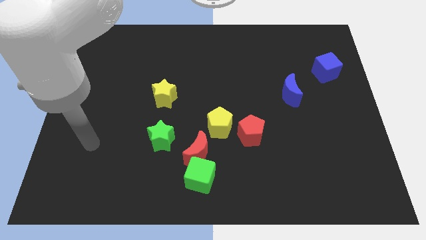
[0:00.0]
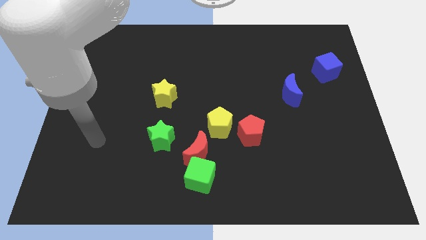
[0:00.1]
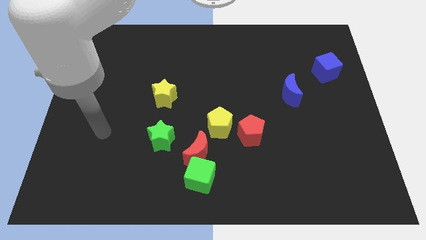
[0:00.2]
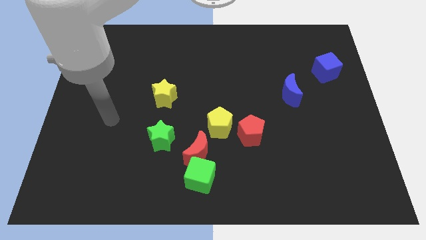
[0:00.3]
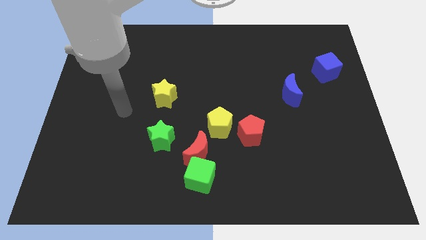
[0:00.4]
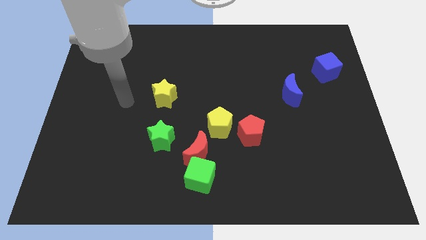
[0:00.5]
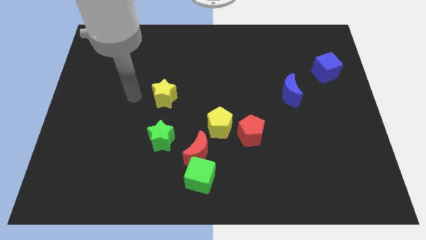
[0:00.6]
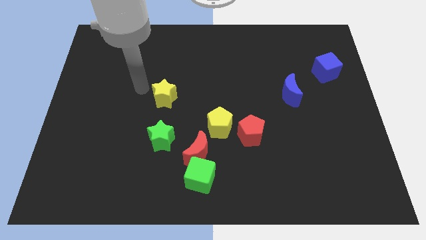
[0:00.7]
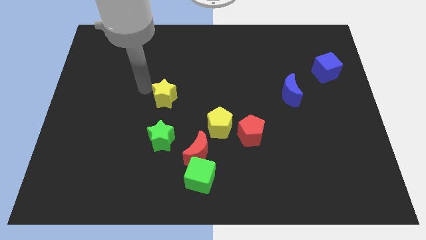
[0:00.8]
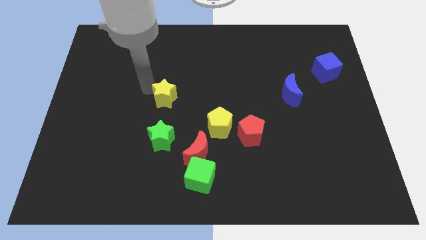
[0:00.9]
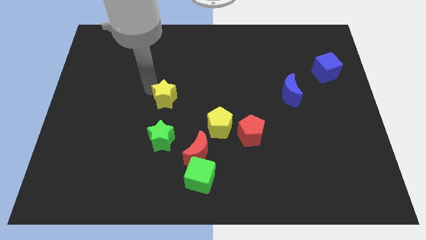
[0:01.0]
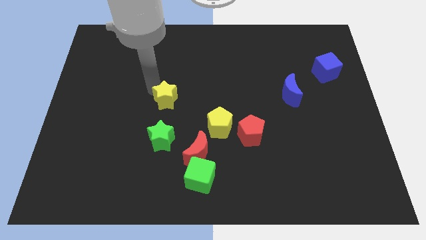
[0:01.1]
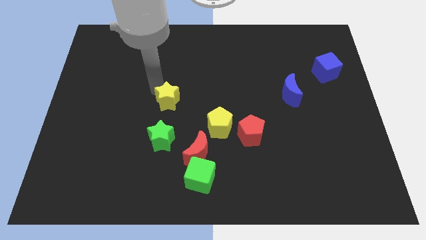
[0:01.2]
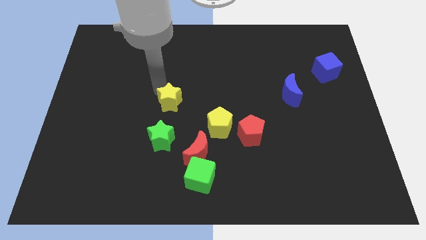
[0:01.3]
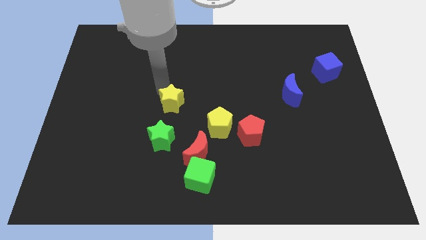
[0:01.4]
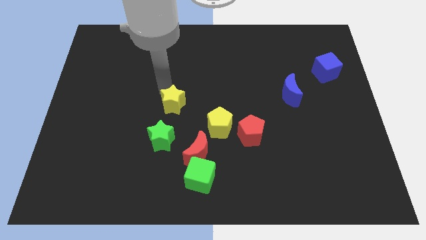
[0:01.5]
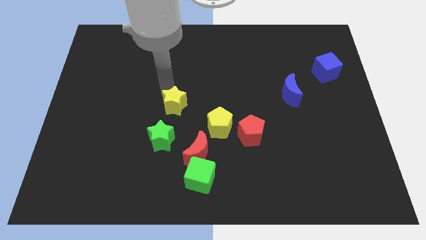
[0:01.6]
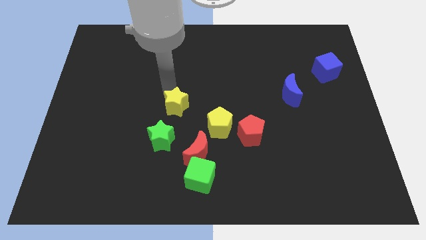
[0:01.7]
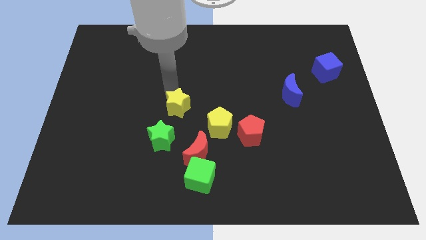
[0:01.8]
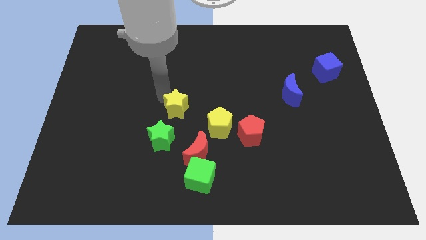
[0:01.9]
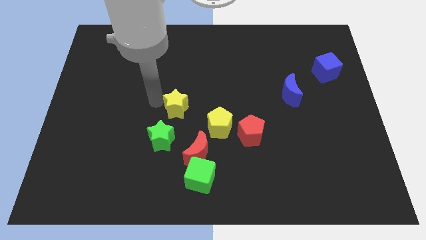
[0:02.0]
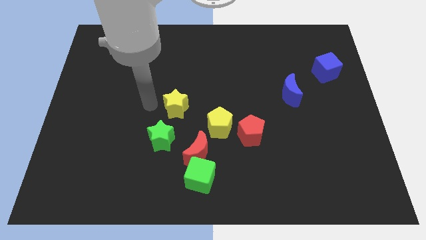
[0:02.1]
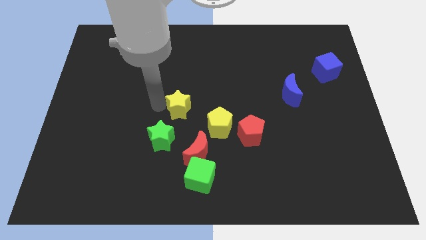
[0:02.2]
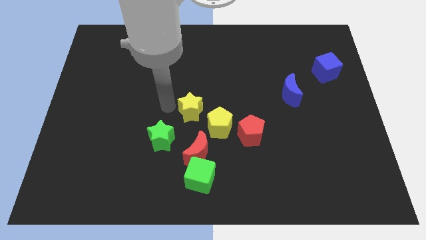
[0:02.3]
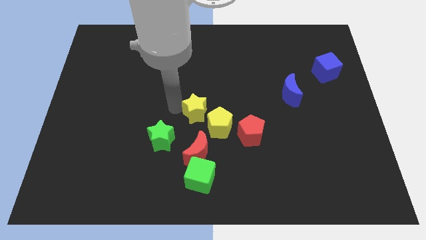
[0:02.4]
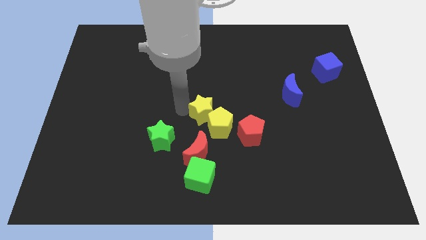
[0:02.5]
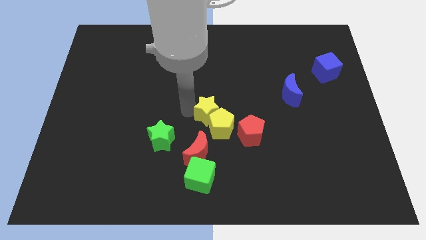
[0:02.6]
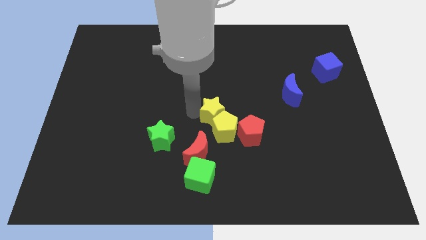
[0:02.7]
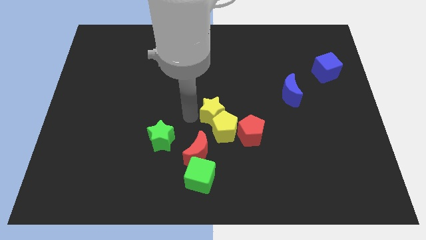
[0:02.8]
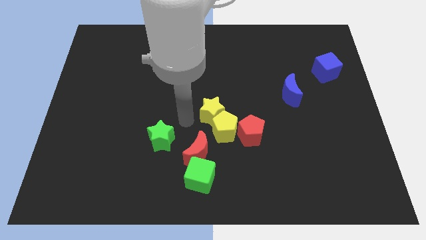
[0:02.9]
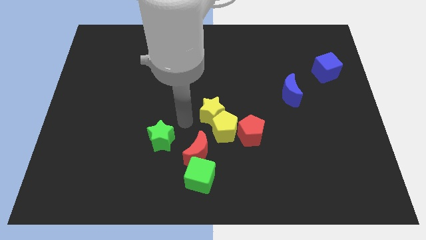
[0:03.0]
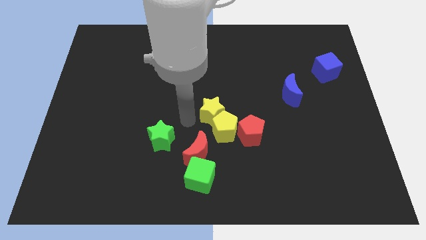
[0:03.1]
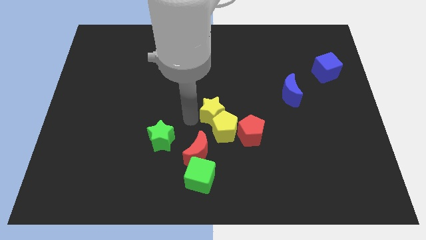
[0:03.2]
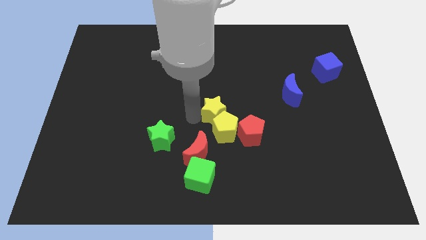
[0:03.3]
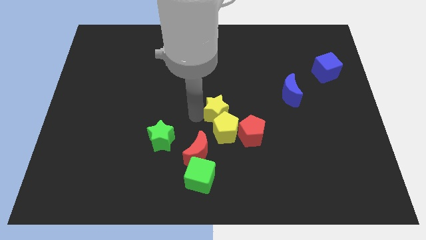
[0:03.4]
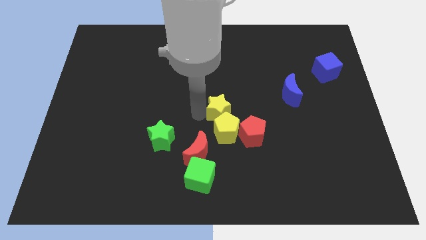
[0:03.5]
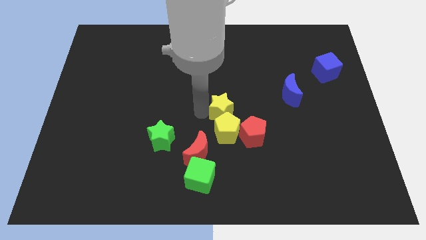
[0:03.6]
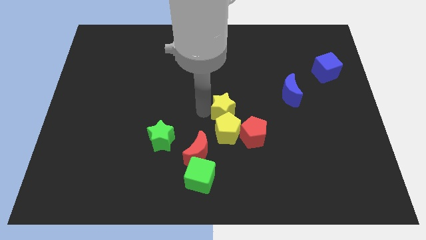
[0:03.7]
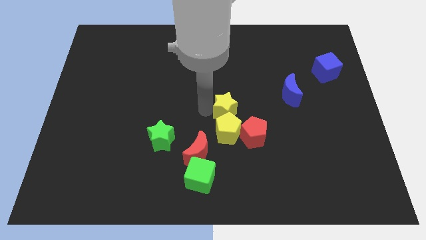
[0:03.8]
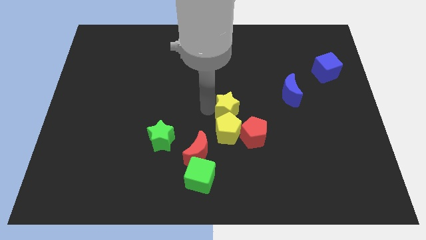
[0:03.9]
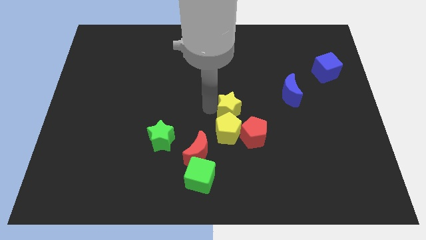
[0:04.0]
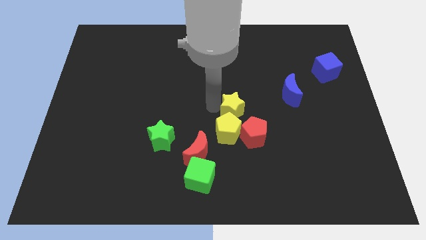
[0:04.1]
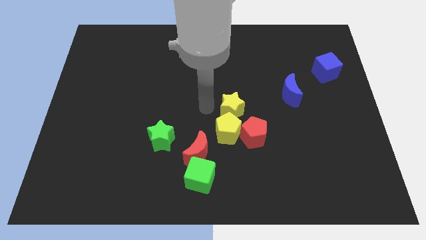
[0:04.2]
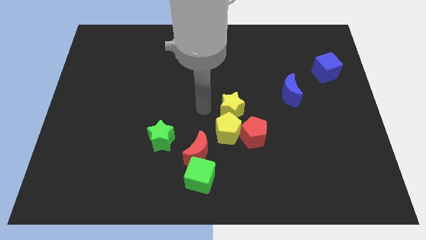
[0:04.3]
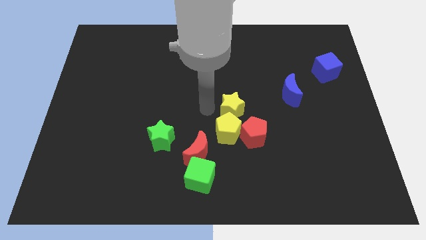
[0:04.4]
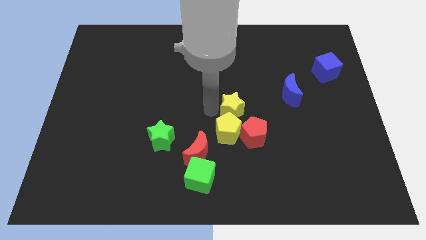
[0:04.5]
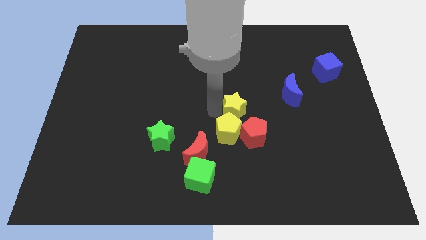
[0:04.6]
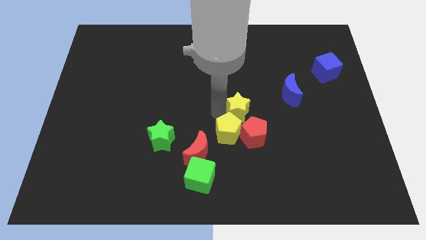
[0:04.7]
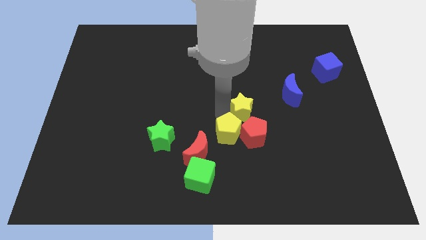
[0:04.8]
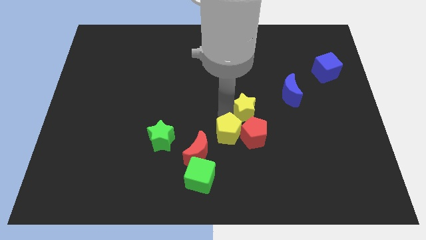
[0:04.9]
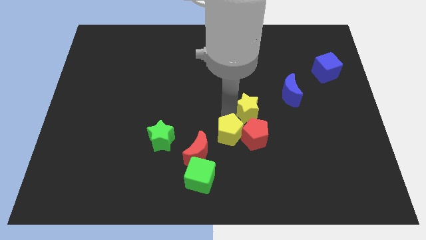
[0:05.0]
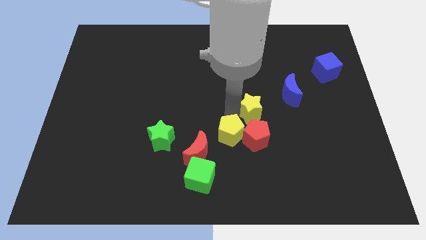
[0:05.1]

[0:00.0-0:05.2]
push the yellow star to the bottom left of the blue moon

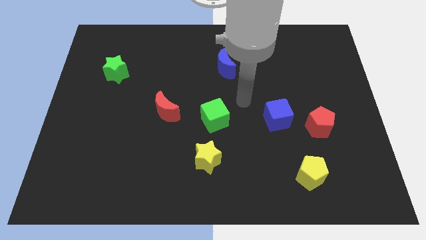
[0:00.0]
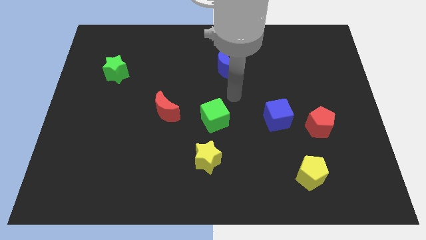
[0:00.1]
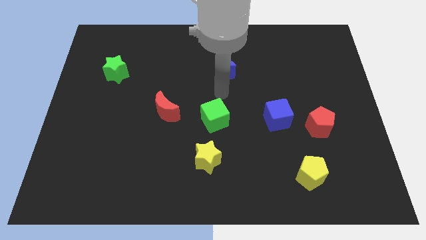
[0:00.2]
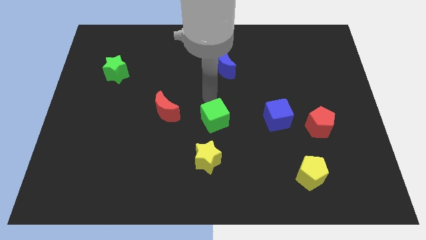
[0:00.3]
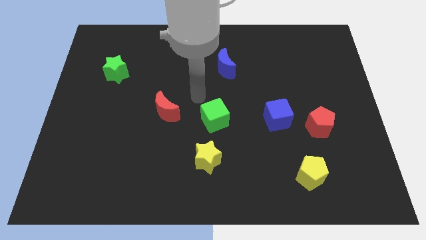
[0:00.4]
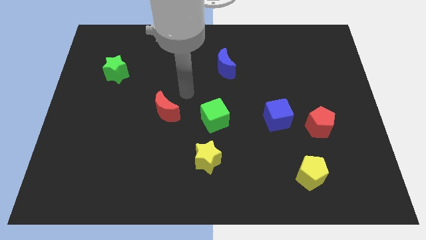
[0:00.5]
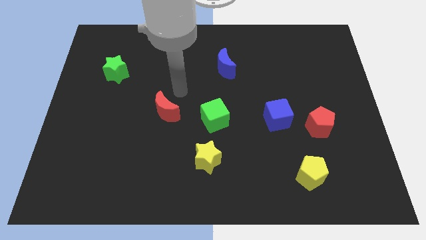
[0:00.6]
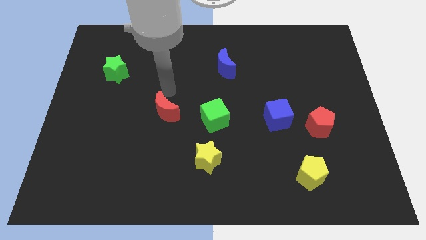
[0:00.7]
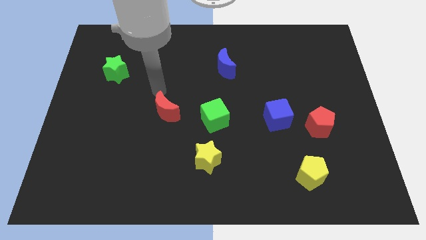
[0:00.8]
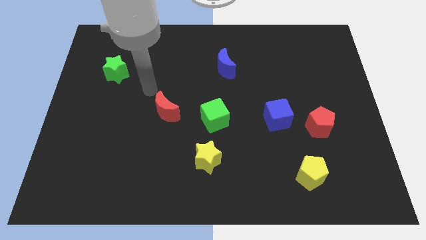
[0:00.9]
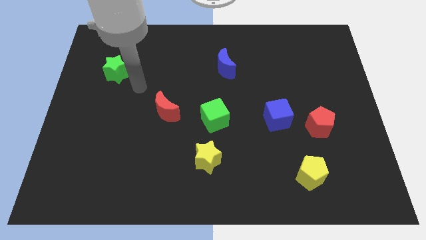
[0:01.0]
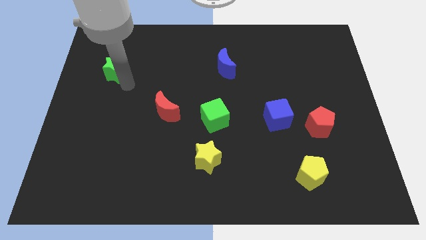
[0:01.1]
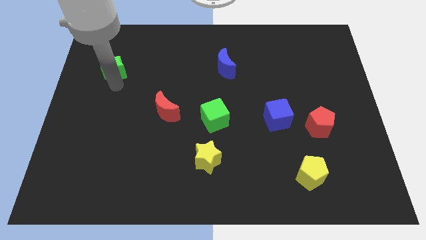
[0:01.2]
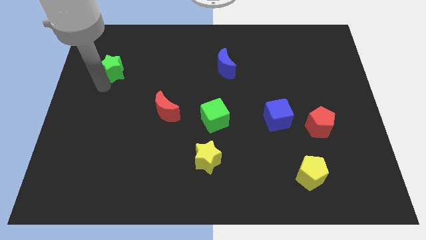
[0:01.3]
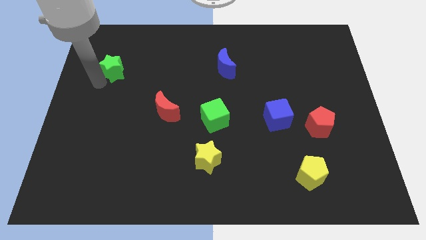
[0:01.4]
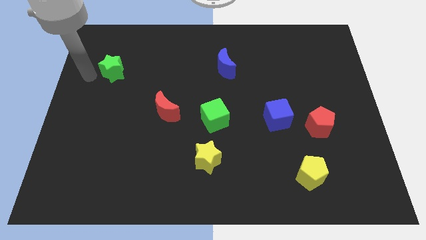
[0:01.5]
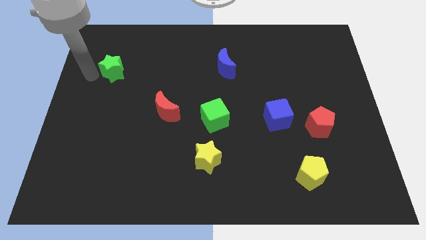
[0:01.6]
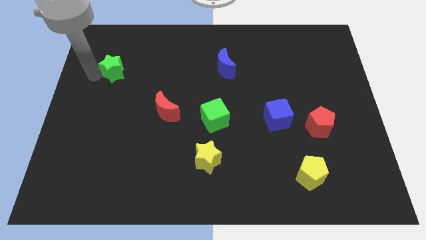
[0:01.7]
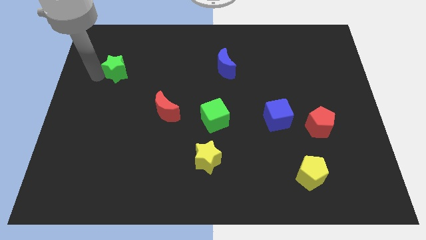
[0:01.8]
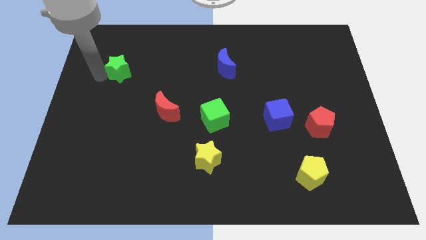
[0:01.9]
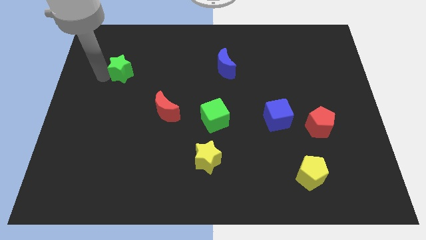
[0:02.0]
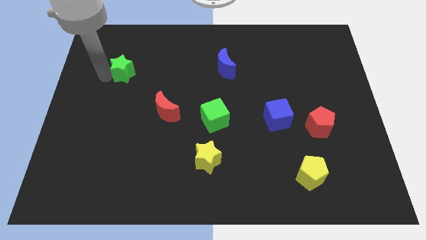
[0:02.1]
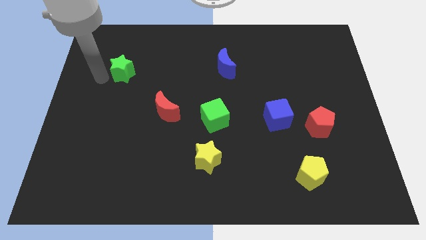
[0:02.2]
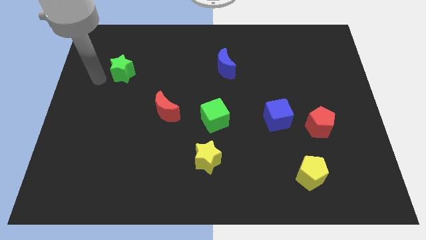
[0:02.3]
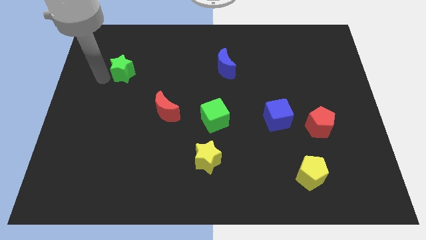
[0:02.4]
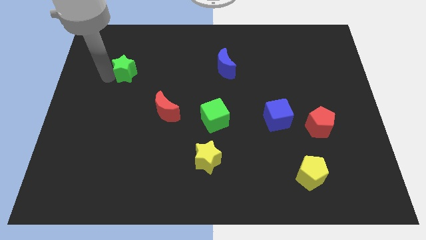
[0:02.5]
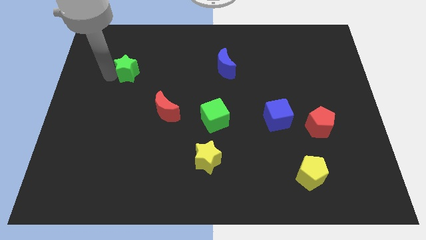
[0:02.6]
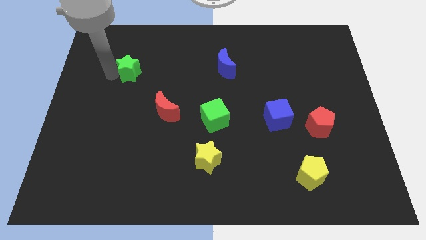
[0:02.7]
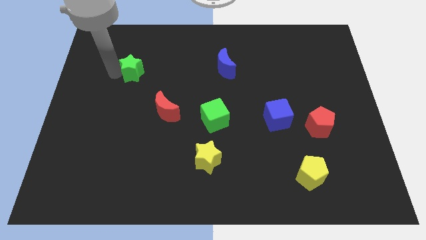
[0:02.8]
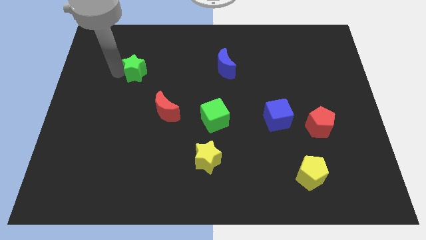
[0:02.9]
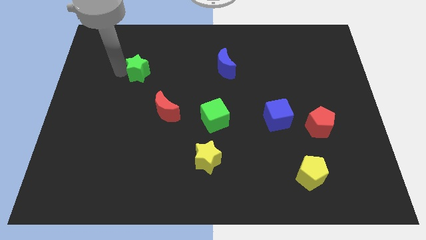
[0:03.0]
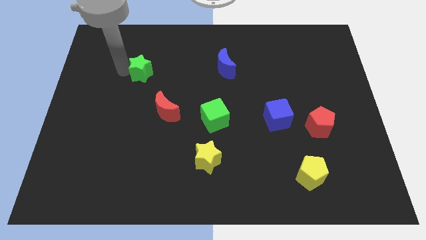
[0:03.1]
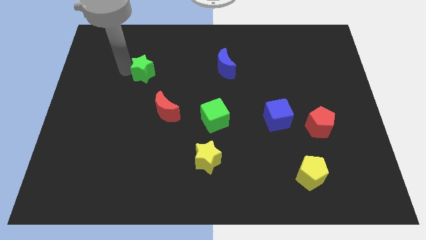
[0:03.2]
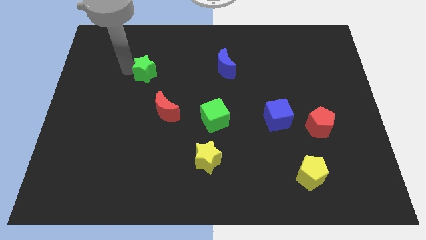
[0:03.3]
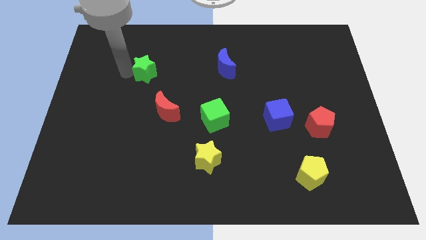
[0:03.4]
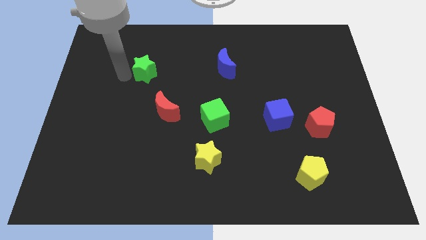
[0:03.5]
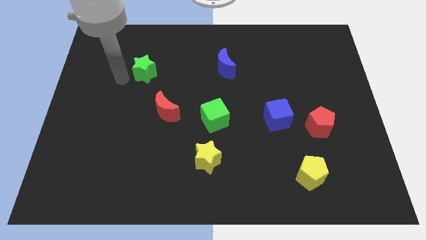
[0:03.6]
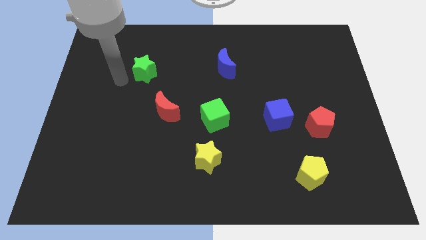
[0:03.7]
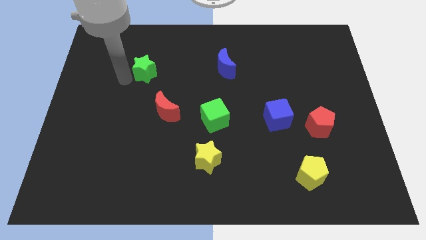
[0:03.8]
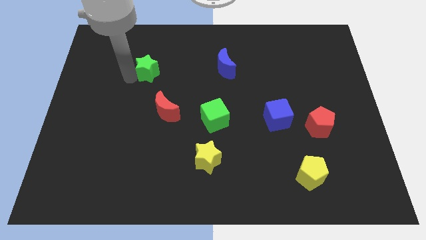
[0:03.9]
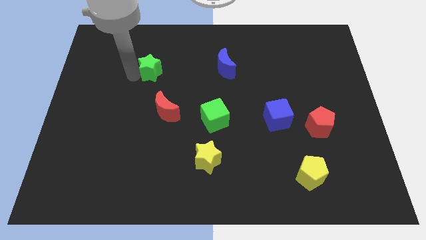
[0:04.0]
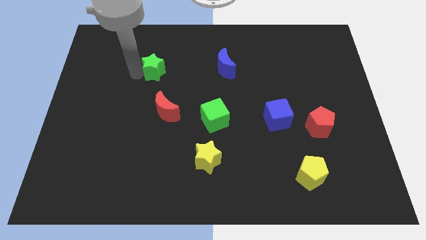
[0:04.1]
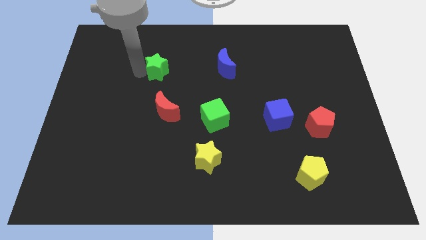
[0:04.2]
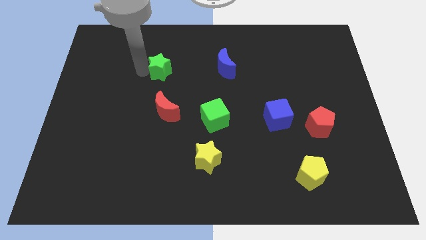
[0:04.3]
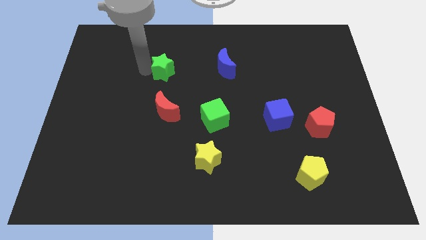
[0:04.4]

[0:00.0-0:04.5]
slide the green star to the left of the blue moon
